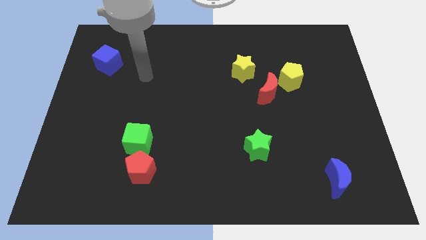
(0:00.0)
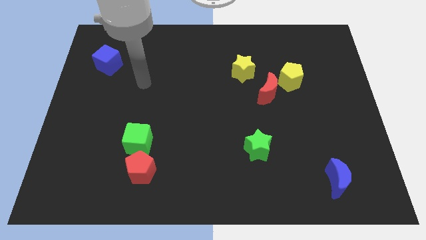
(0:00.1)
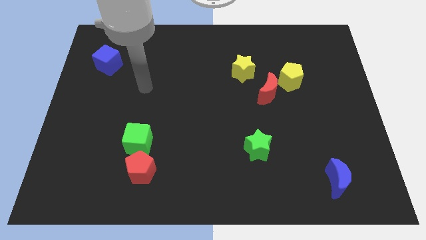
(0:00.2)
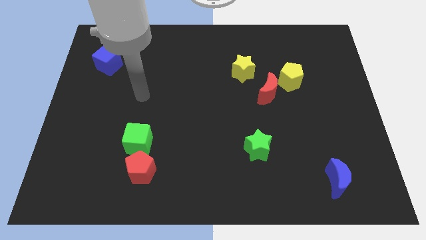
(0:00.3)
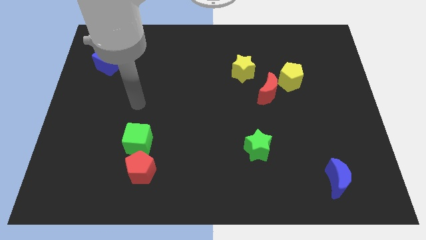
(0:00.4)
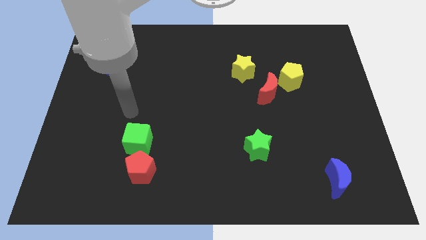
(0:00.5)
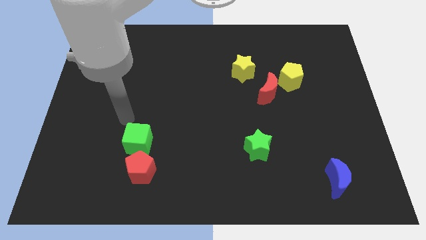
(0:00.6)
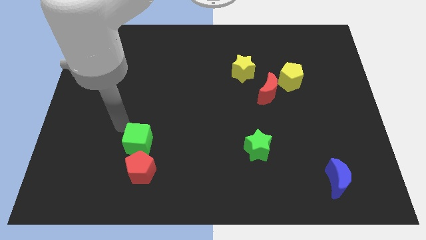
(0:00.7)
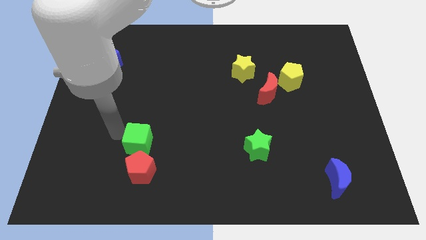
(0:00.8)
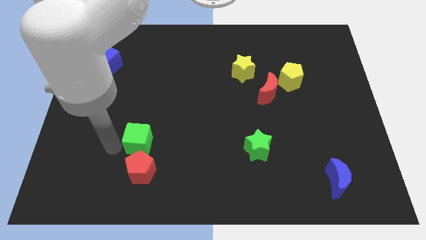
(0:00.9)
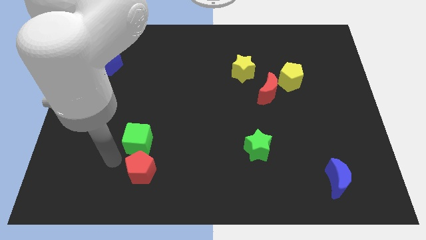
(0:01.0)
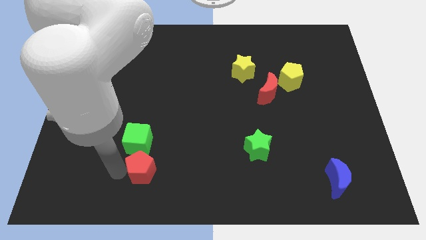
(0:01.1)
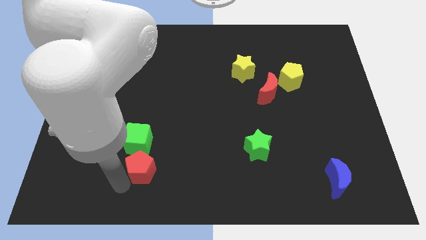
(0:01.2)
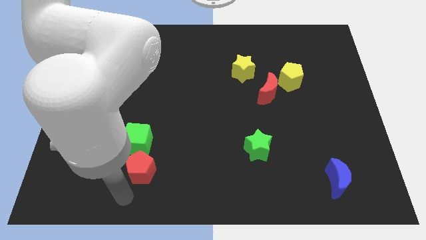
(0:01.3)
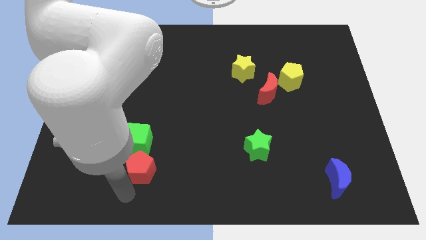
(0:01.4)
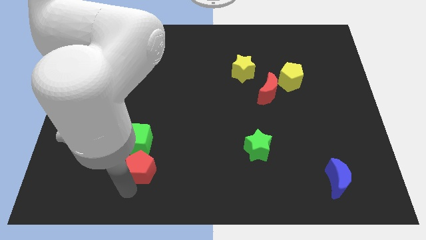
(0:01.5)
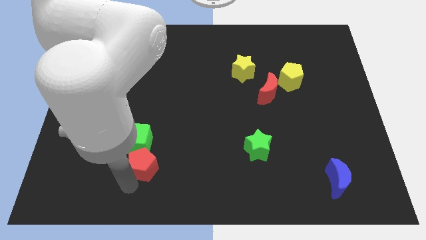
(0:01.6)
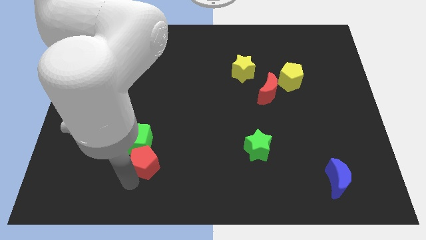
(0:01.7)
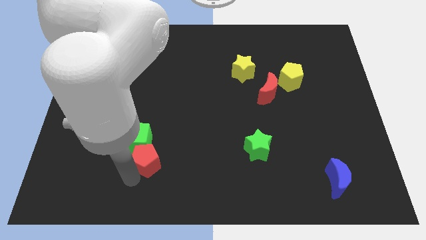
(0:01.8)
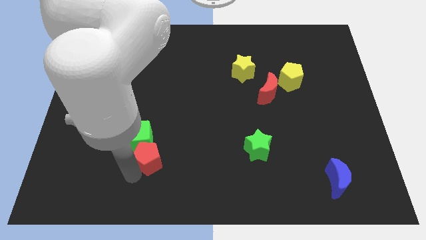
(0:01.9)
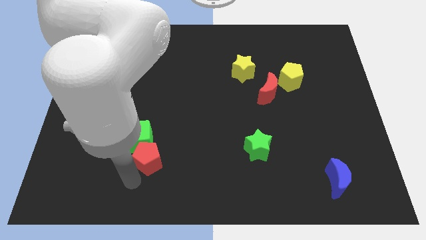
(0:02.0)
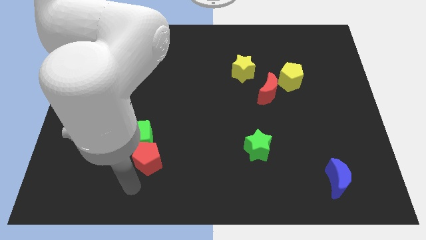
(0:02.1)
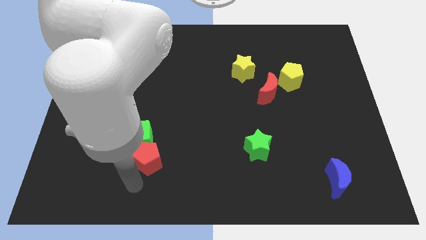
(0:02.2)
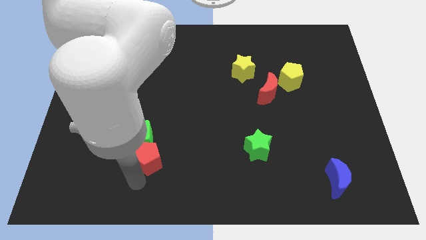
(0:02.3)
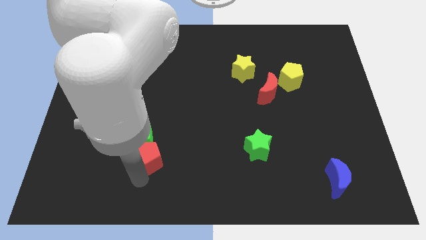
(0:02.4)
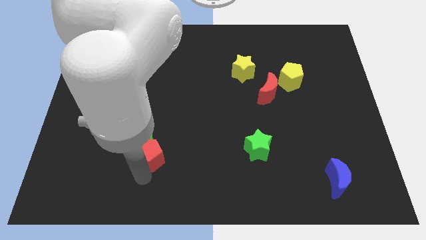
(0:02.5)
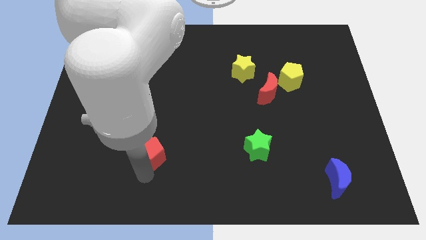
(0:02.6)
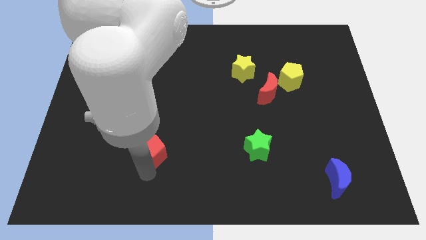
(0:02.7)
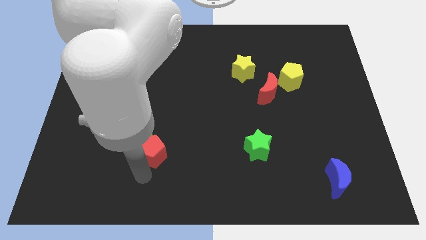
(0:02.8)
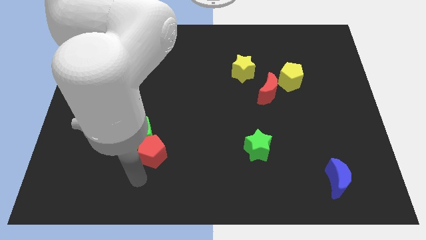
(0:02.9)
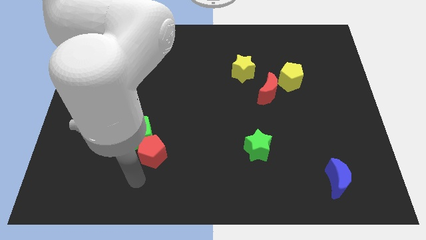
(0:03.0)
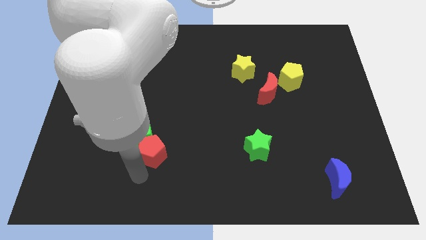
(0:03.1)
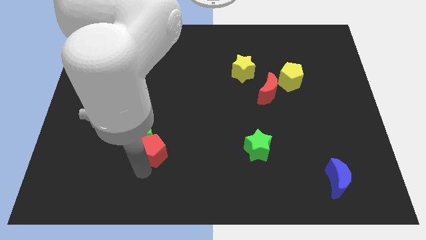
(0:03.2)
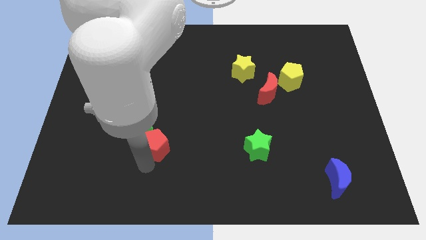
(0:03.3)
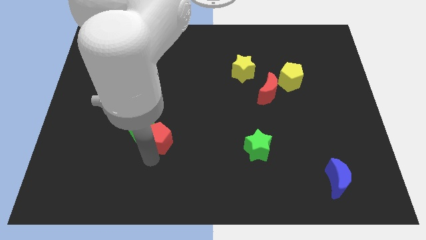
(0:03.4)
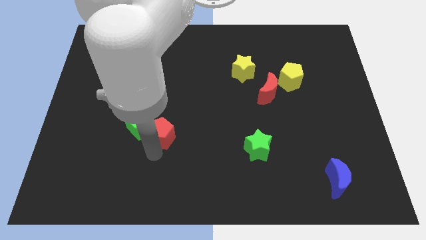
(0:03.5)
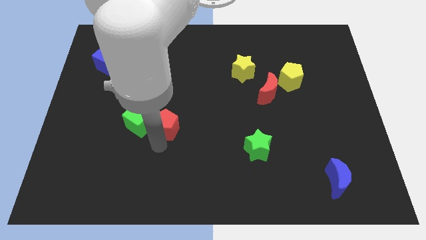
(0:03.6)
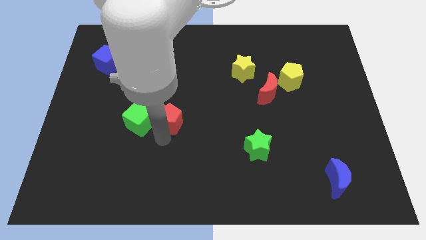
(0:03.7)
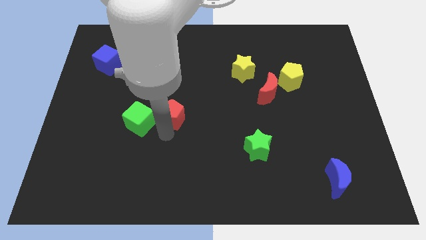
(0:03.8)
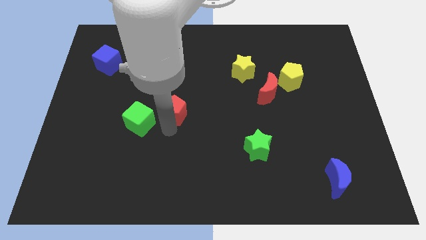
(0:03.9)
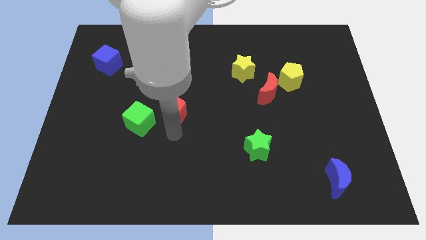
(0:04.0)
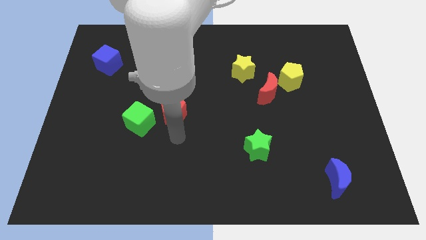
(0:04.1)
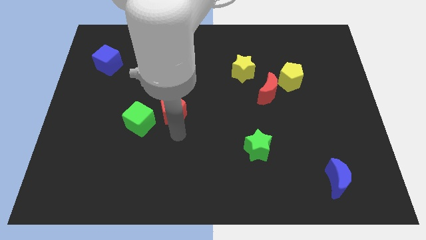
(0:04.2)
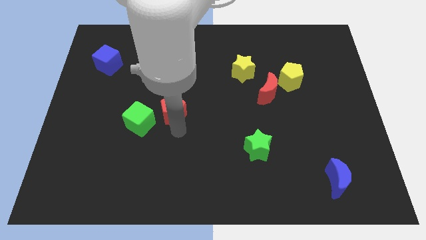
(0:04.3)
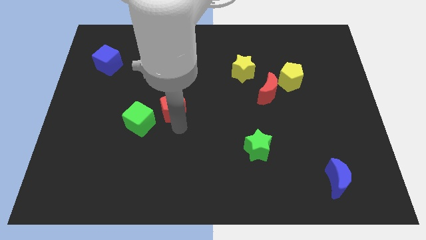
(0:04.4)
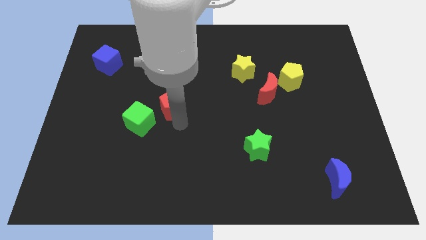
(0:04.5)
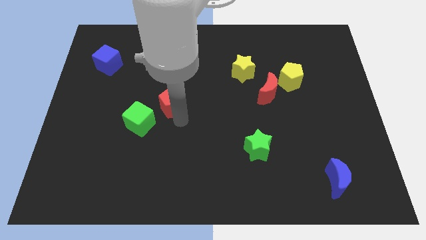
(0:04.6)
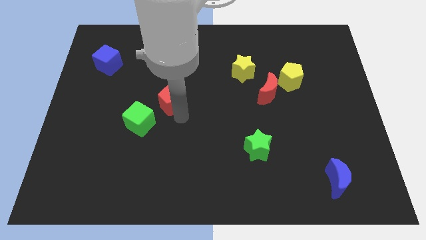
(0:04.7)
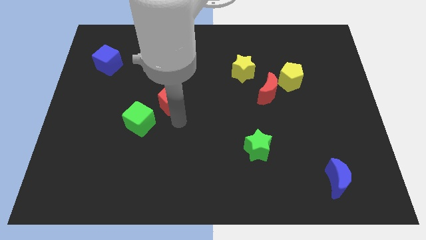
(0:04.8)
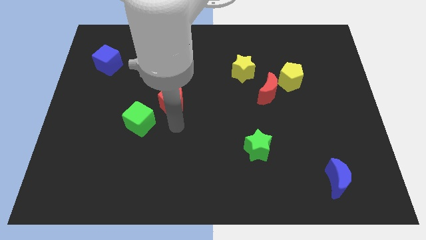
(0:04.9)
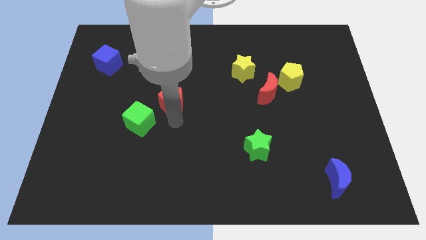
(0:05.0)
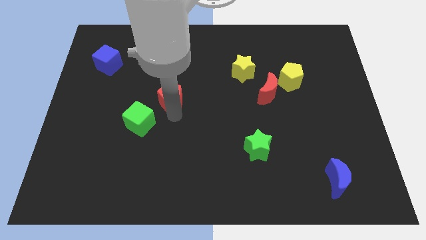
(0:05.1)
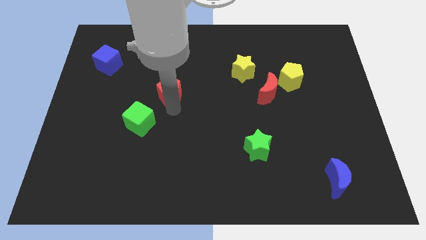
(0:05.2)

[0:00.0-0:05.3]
move the red pentagon up

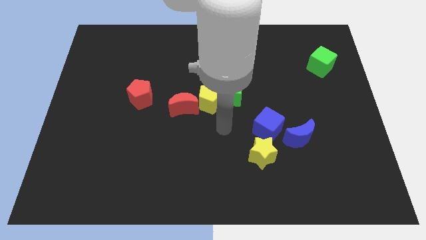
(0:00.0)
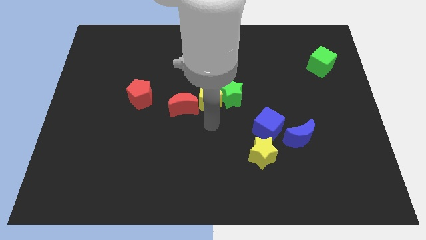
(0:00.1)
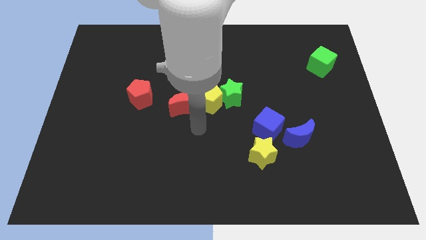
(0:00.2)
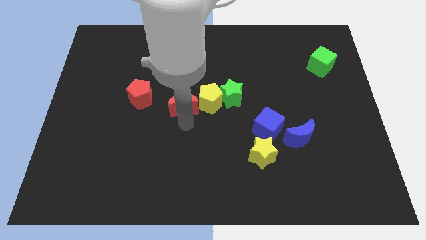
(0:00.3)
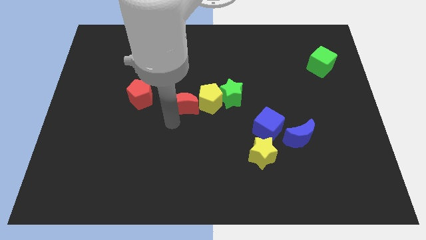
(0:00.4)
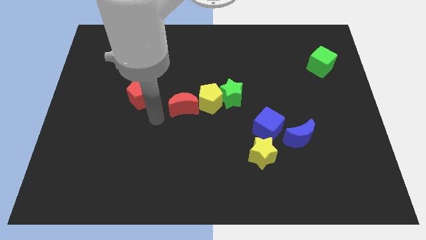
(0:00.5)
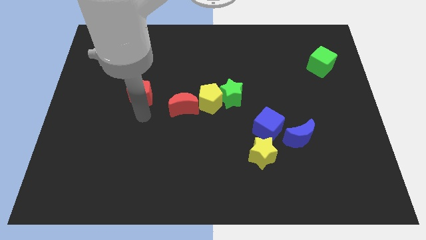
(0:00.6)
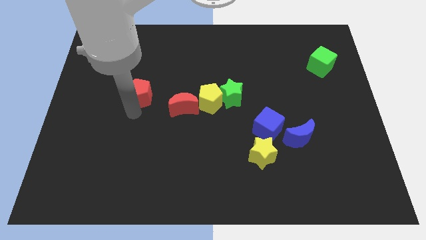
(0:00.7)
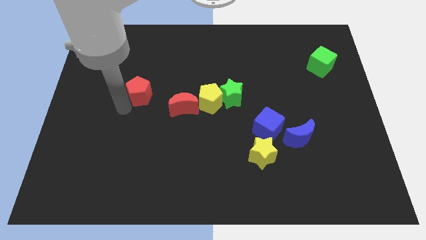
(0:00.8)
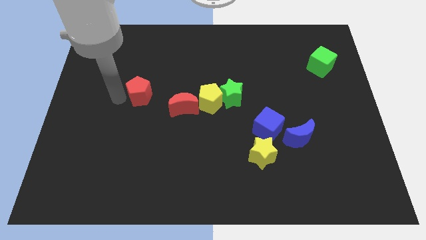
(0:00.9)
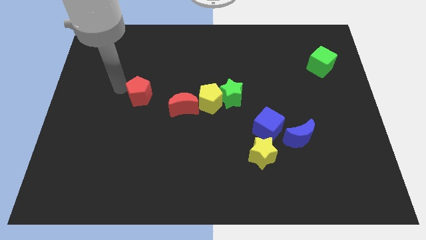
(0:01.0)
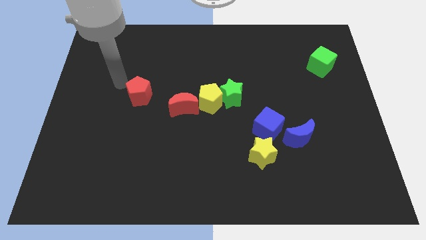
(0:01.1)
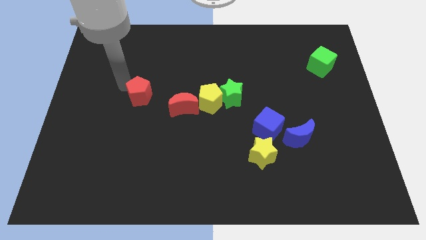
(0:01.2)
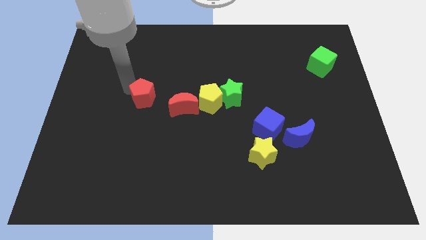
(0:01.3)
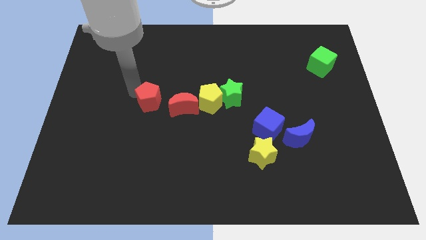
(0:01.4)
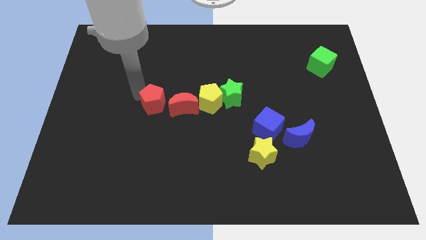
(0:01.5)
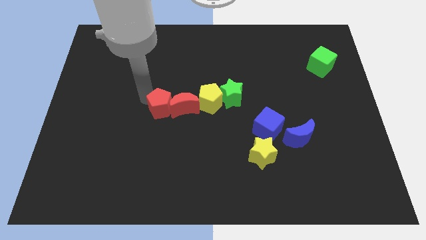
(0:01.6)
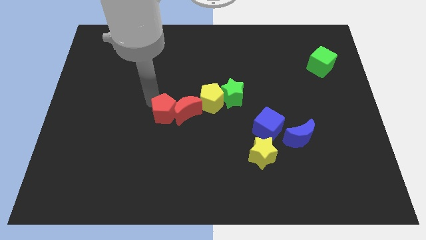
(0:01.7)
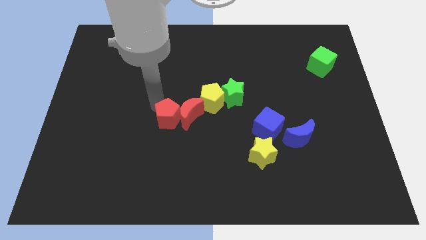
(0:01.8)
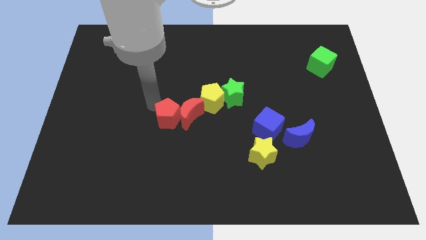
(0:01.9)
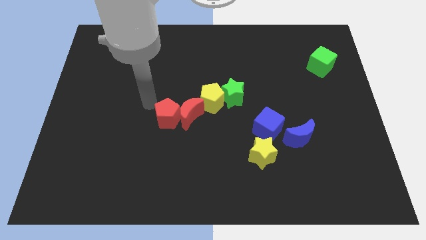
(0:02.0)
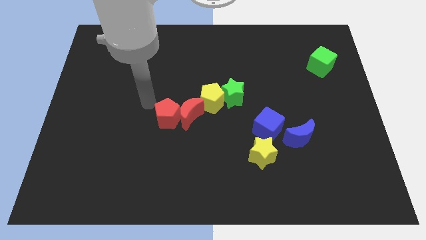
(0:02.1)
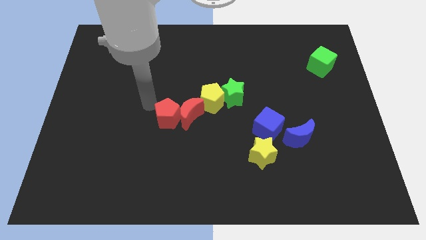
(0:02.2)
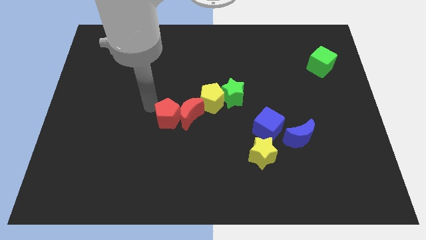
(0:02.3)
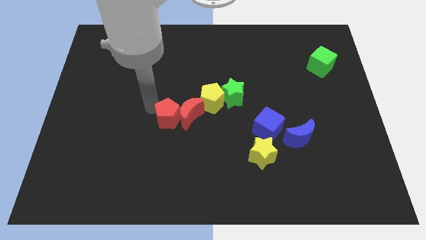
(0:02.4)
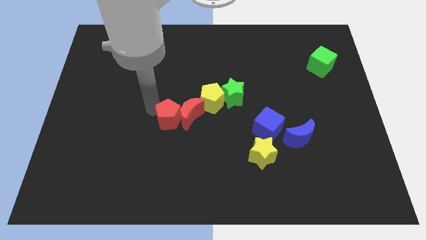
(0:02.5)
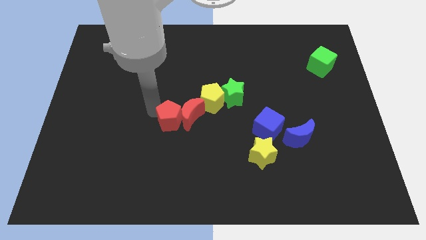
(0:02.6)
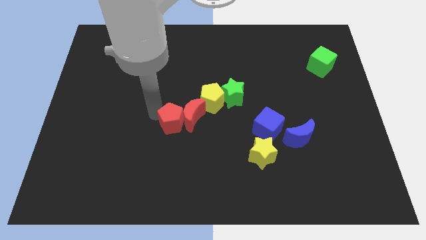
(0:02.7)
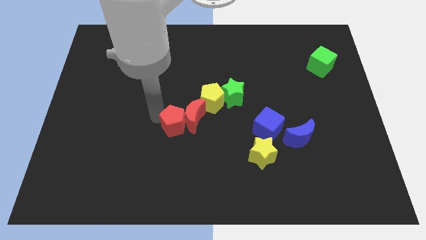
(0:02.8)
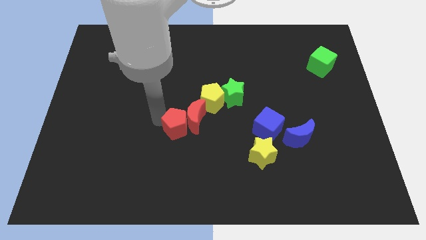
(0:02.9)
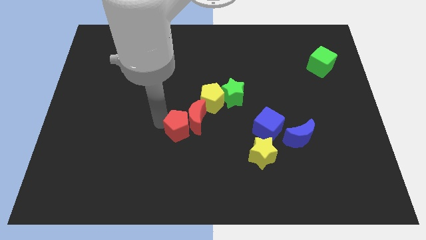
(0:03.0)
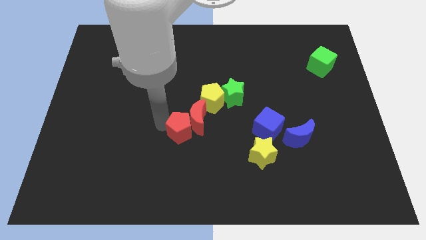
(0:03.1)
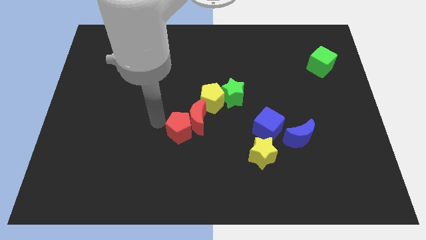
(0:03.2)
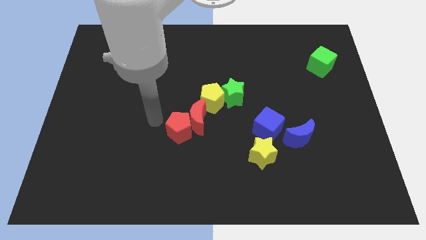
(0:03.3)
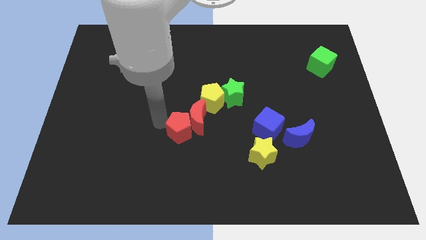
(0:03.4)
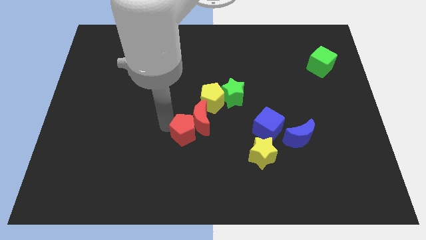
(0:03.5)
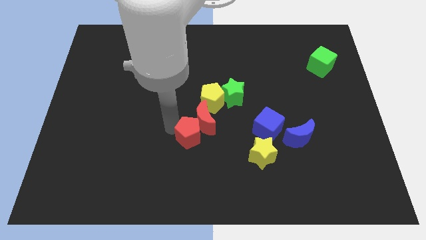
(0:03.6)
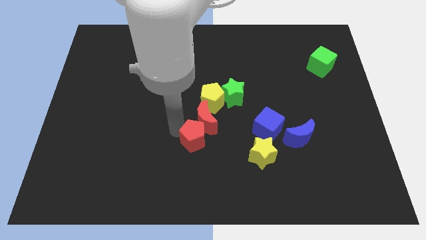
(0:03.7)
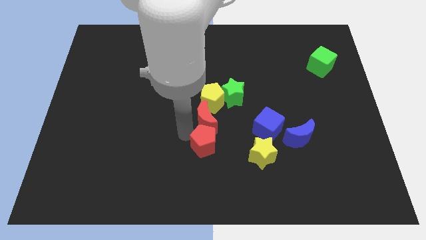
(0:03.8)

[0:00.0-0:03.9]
slide the red pentagon down and to the right
